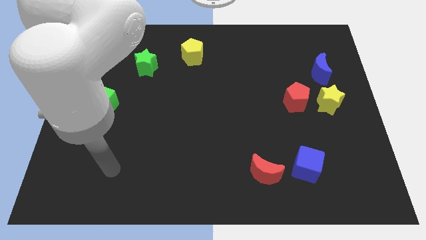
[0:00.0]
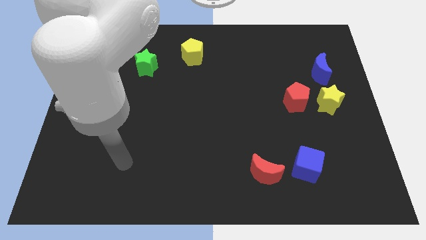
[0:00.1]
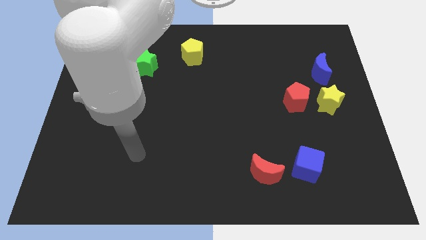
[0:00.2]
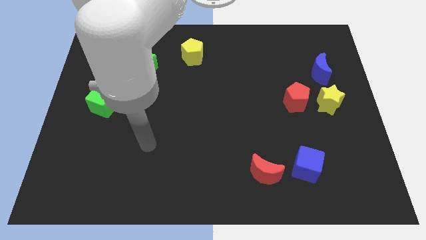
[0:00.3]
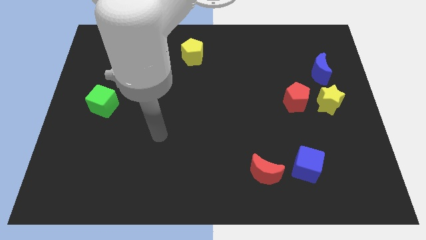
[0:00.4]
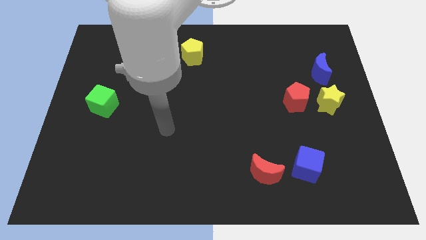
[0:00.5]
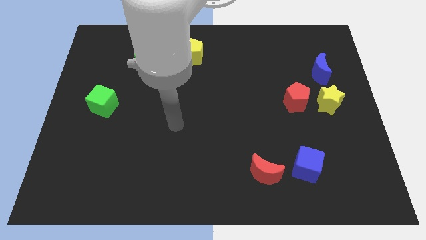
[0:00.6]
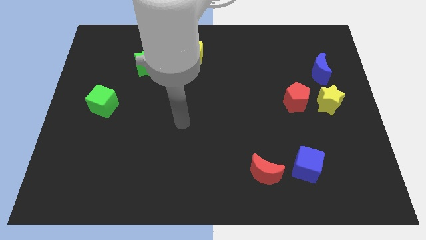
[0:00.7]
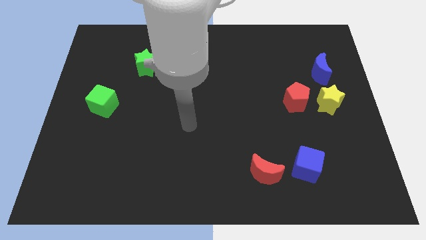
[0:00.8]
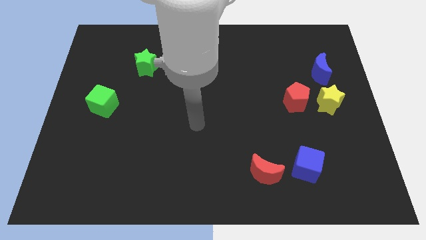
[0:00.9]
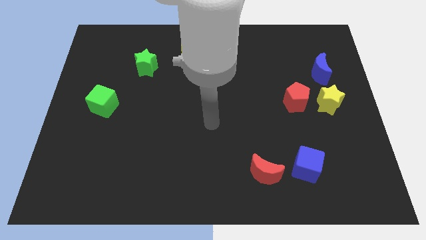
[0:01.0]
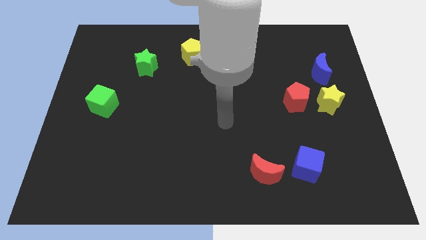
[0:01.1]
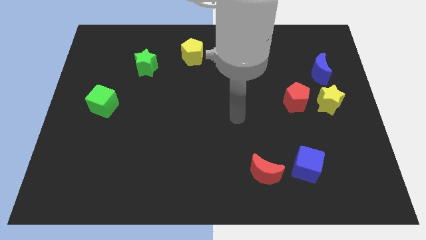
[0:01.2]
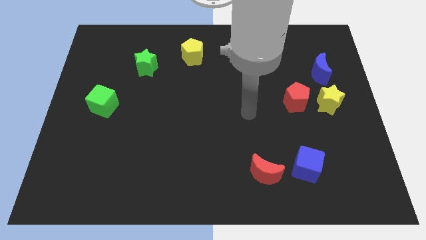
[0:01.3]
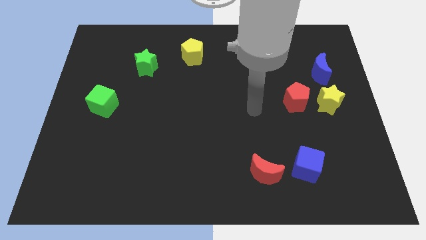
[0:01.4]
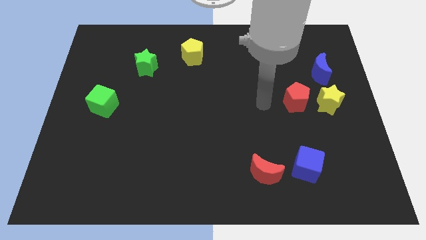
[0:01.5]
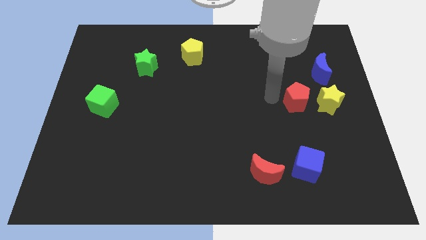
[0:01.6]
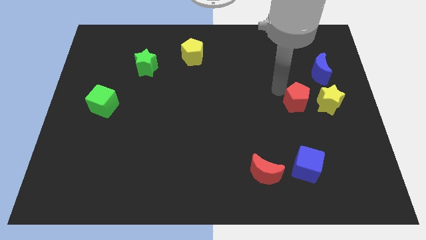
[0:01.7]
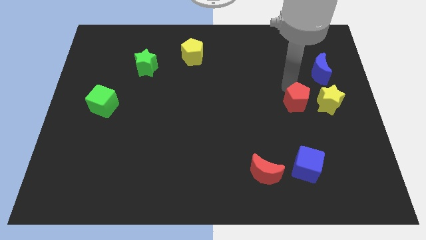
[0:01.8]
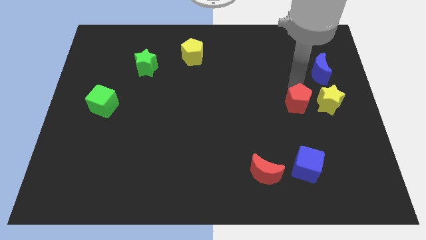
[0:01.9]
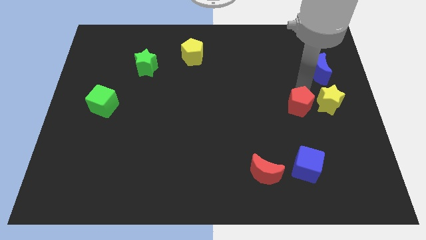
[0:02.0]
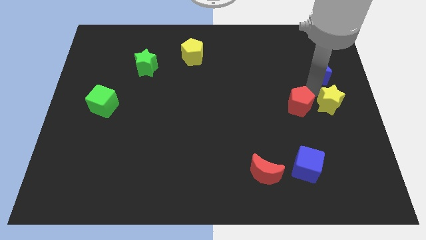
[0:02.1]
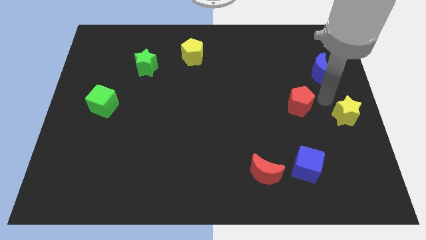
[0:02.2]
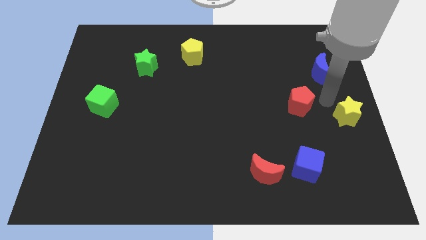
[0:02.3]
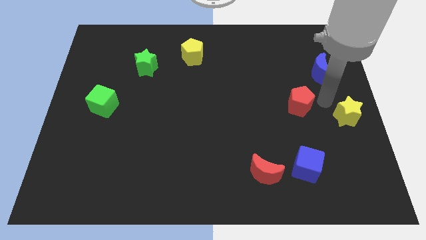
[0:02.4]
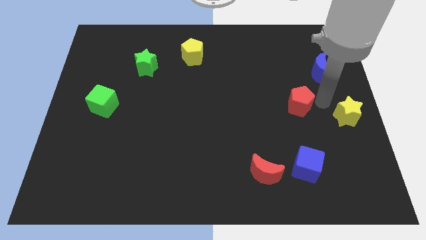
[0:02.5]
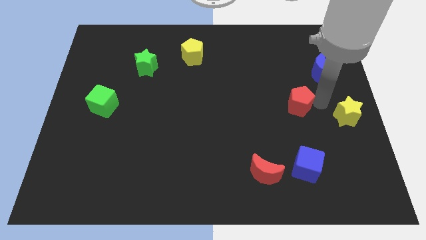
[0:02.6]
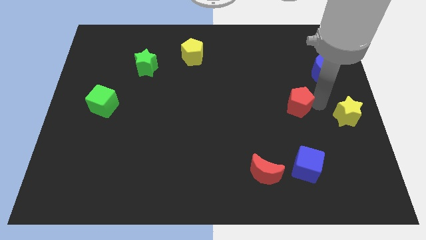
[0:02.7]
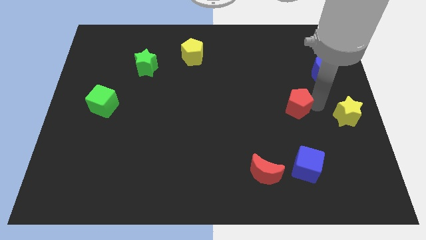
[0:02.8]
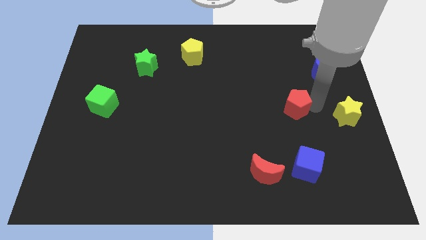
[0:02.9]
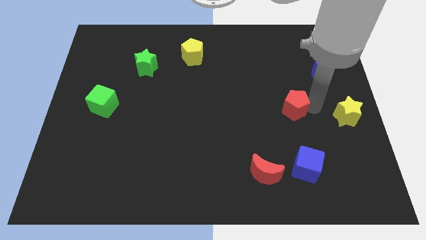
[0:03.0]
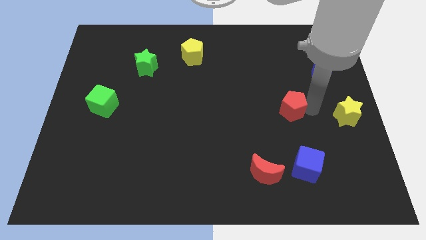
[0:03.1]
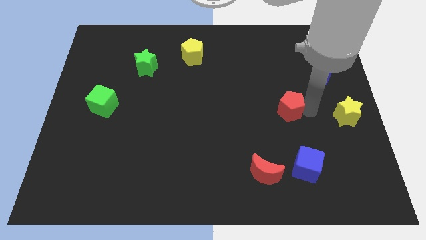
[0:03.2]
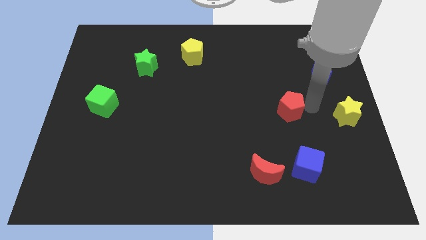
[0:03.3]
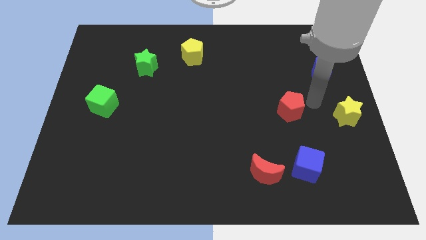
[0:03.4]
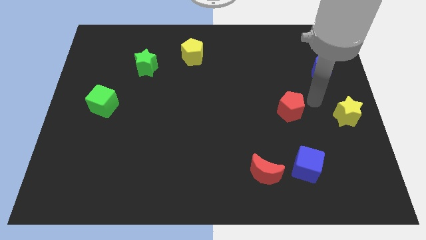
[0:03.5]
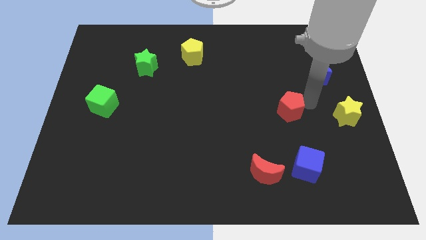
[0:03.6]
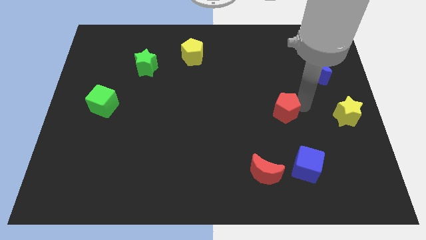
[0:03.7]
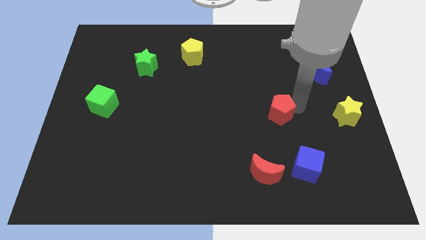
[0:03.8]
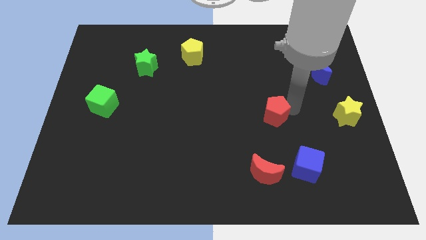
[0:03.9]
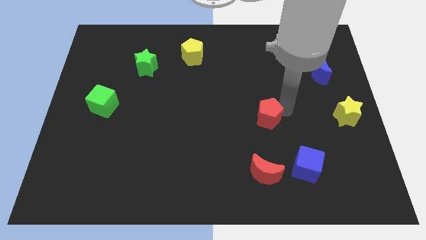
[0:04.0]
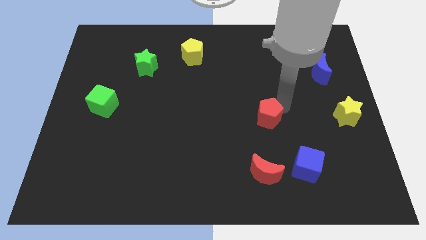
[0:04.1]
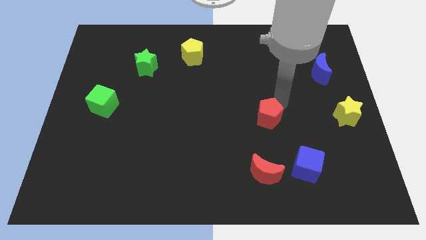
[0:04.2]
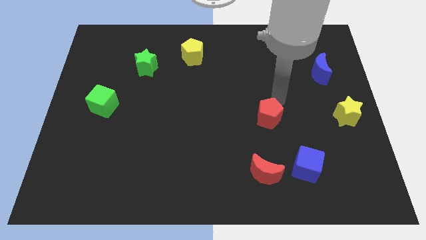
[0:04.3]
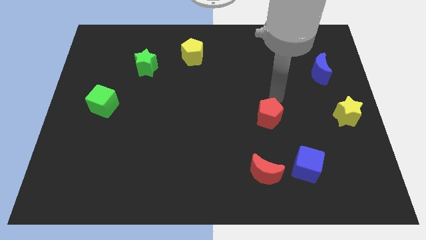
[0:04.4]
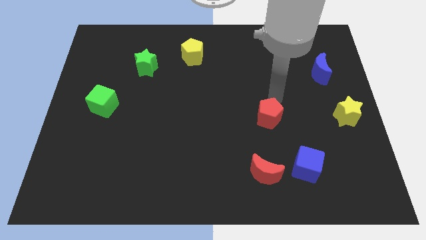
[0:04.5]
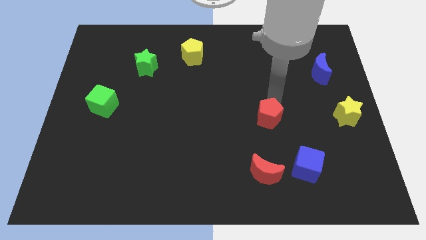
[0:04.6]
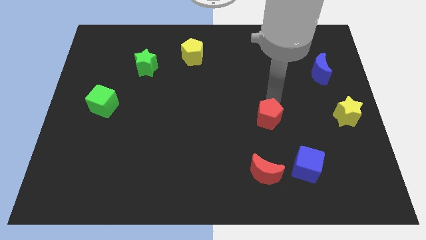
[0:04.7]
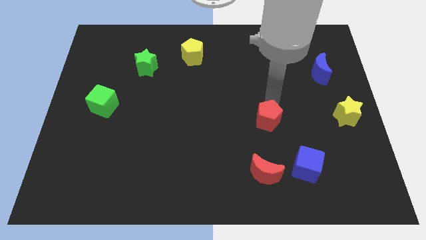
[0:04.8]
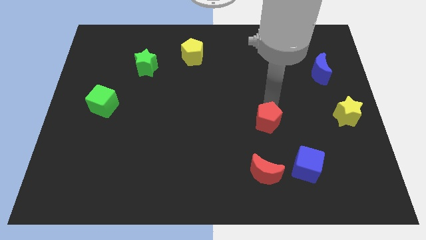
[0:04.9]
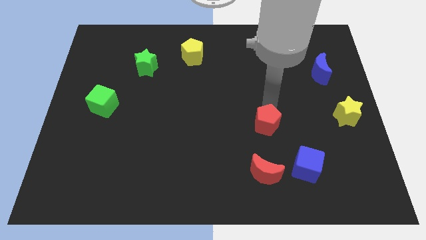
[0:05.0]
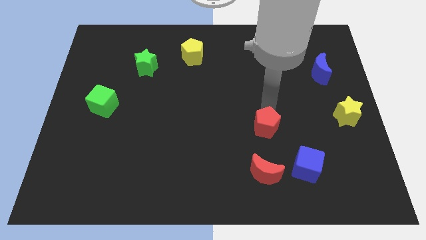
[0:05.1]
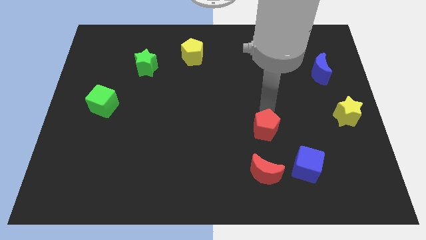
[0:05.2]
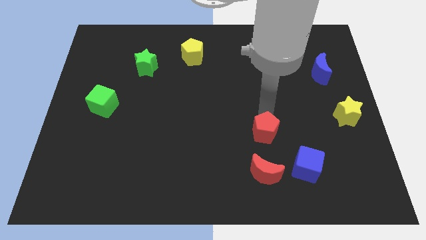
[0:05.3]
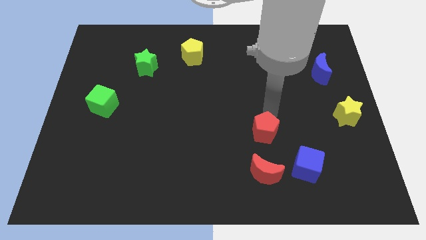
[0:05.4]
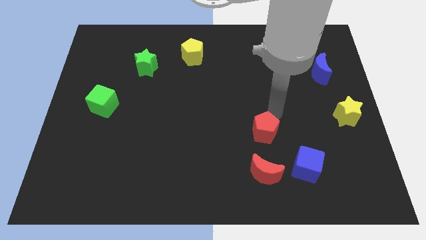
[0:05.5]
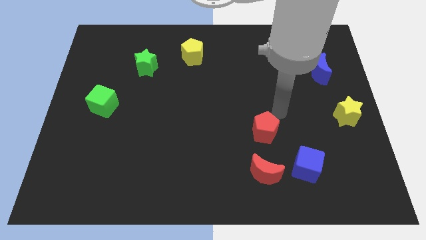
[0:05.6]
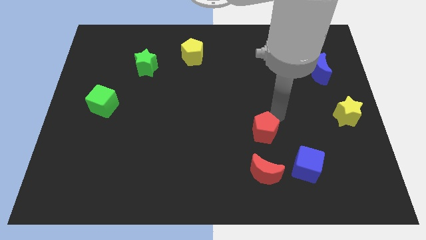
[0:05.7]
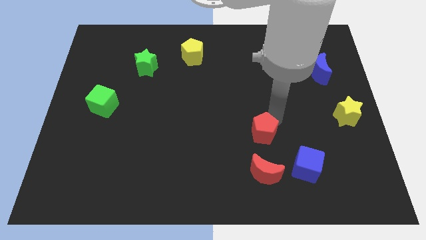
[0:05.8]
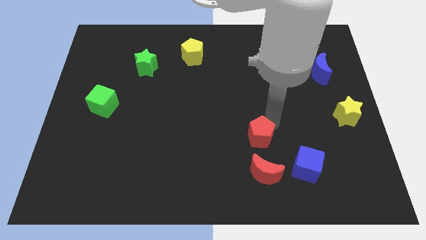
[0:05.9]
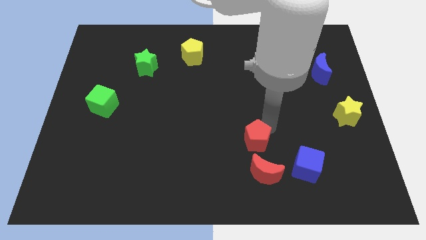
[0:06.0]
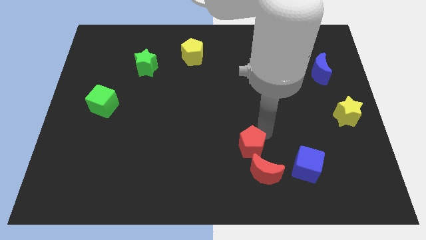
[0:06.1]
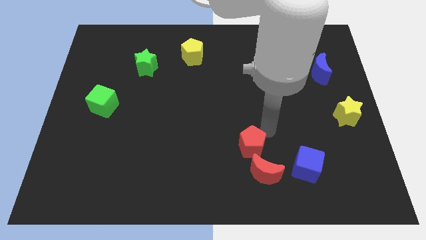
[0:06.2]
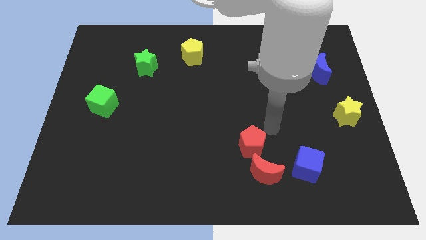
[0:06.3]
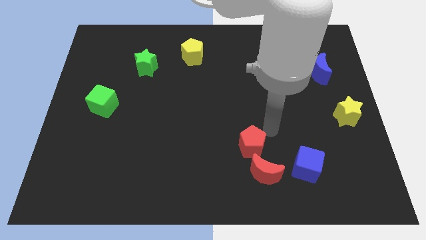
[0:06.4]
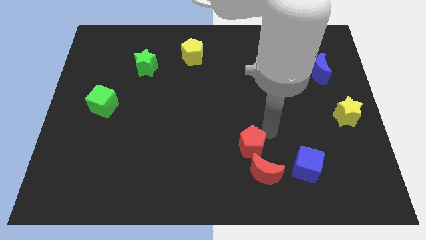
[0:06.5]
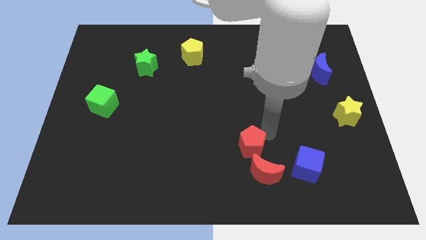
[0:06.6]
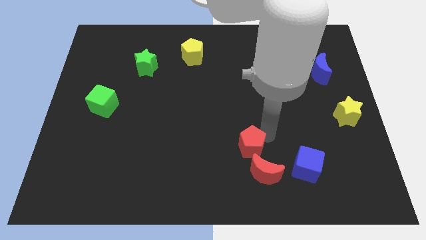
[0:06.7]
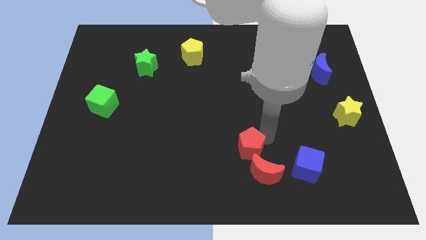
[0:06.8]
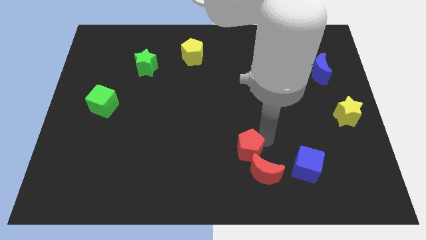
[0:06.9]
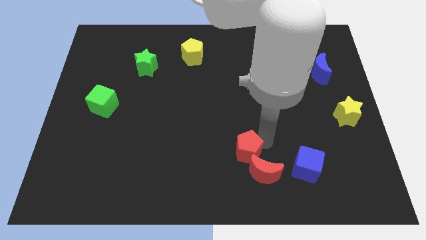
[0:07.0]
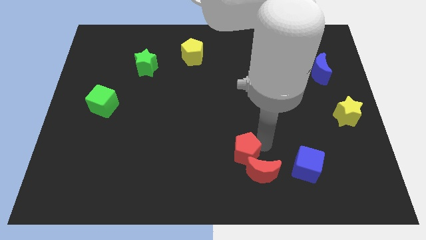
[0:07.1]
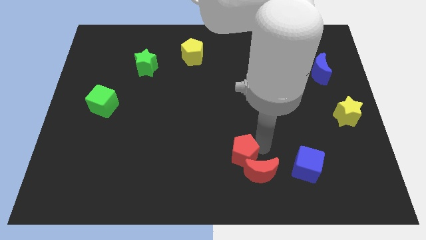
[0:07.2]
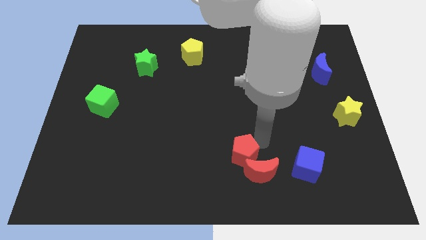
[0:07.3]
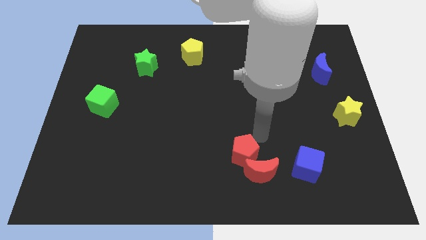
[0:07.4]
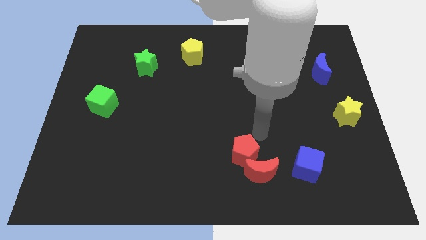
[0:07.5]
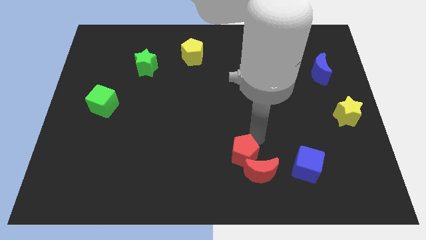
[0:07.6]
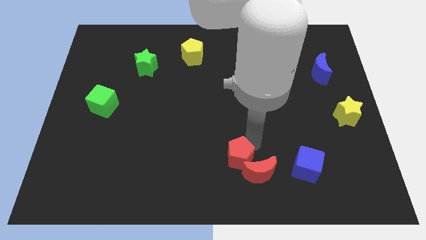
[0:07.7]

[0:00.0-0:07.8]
move the red pentagon to the bottom
